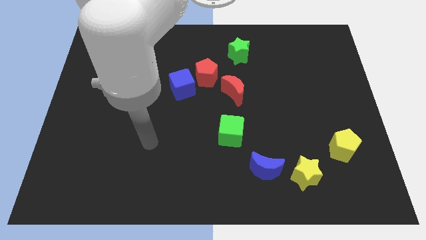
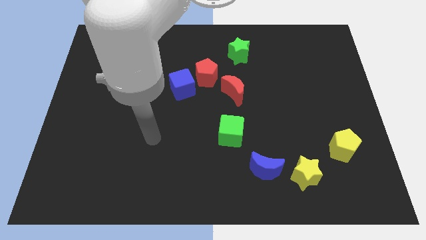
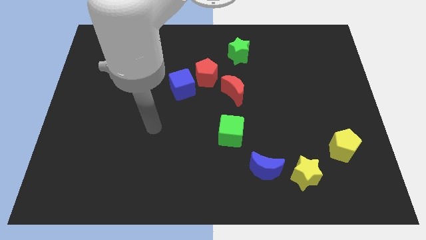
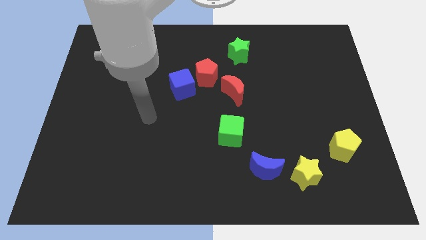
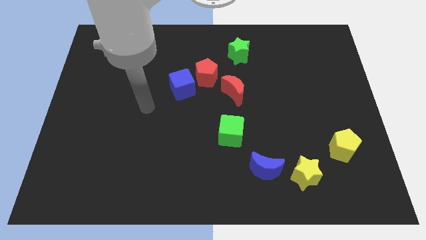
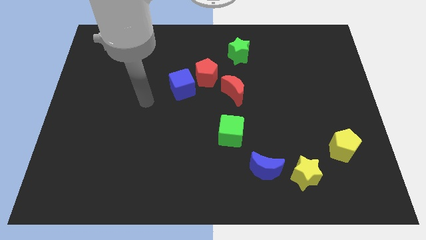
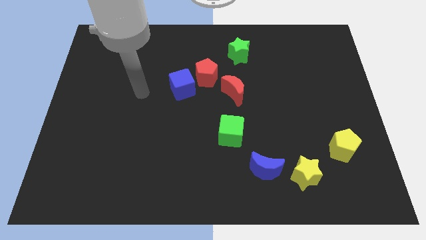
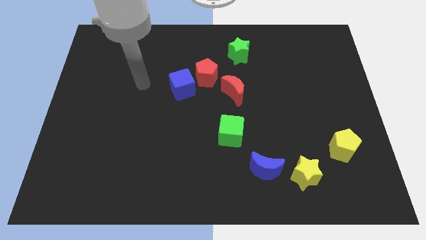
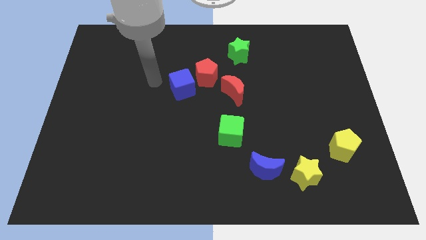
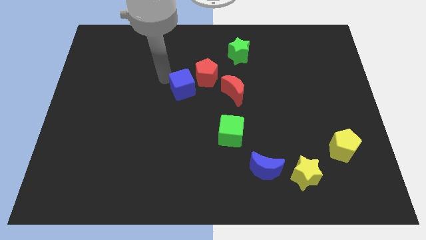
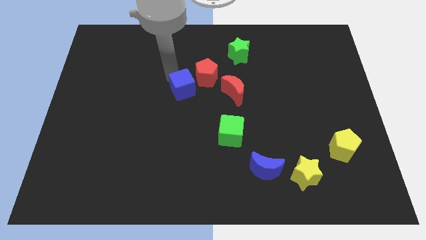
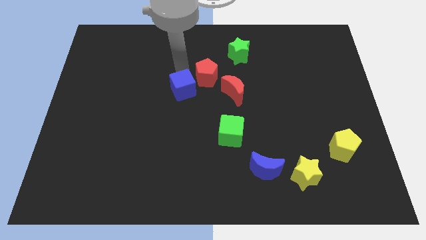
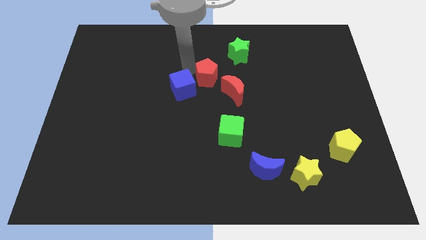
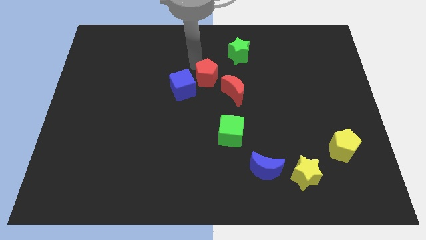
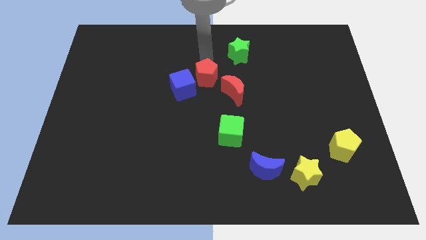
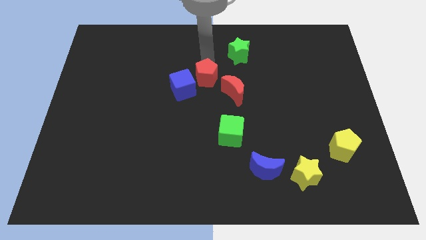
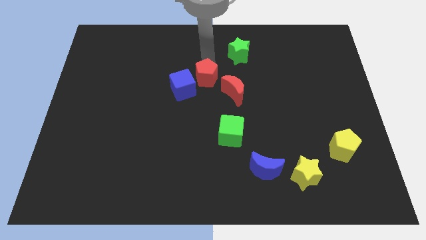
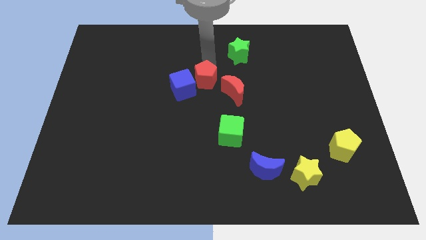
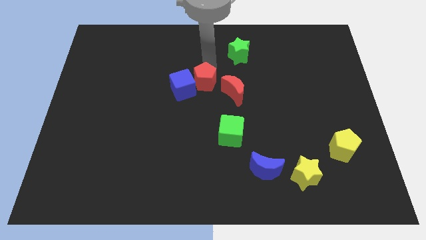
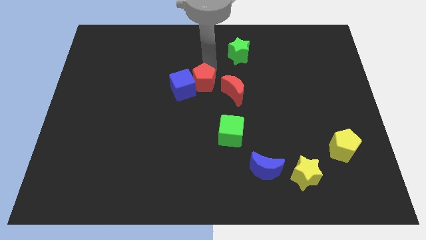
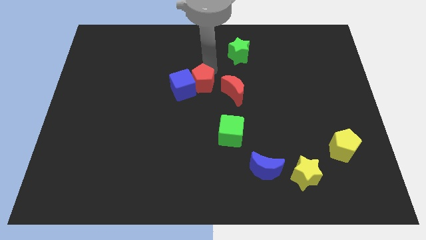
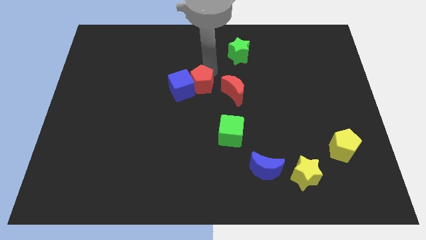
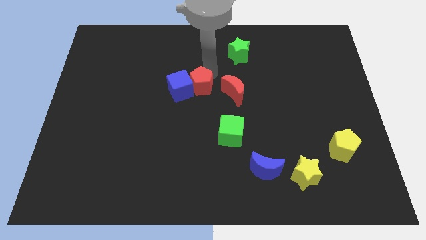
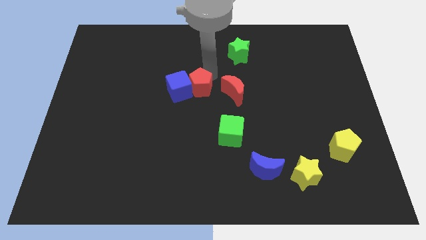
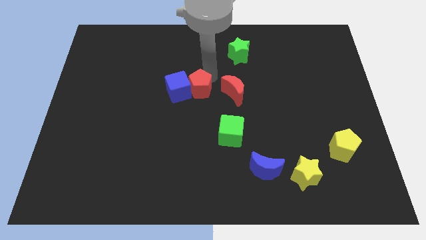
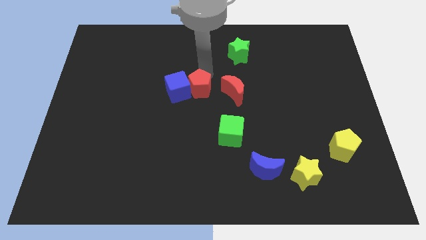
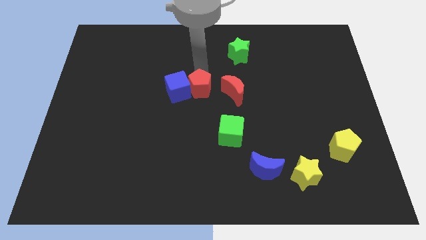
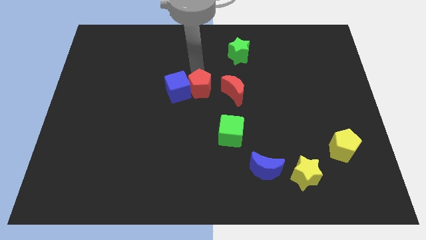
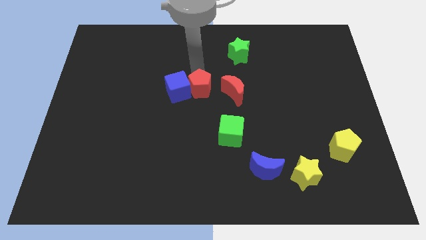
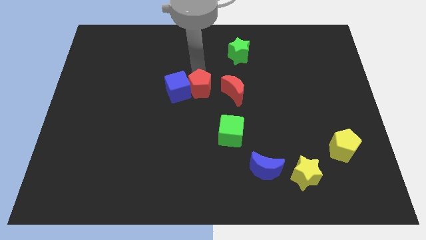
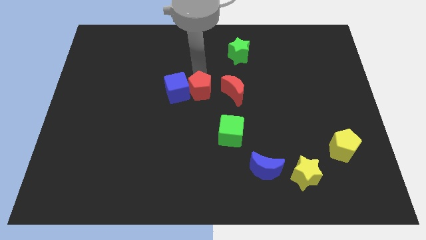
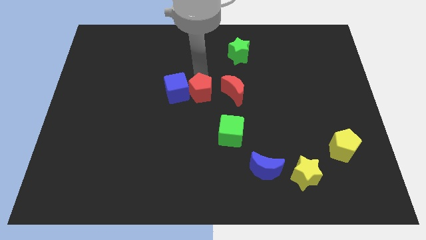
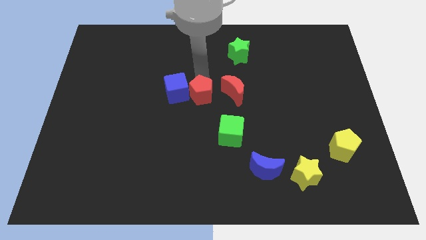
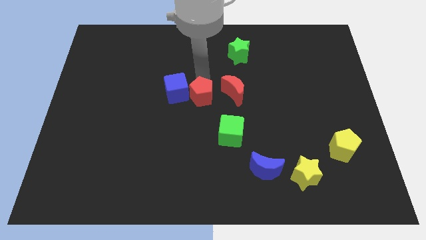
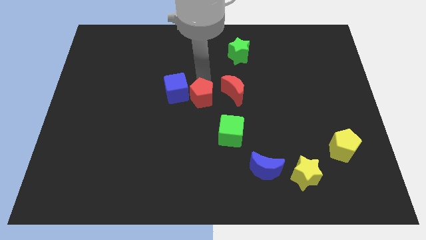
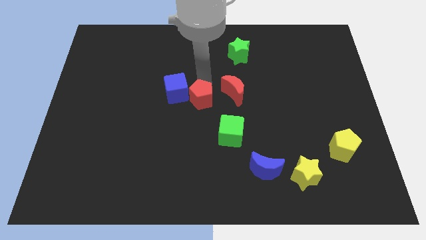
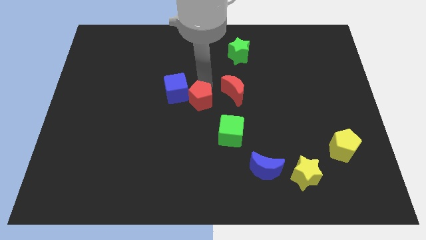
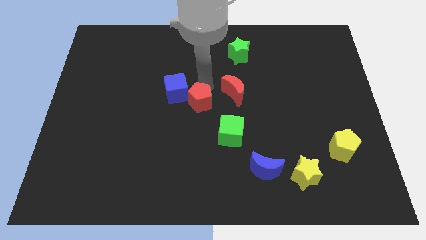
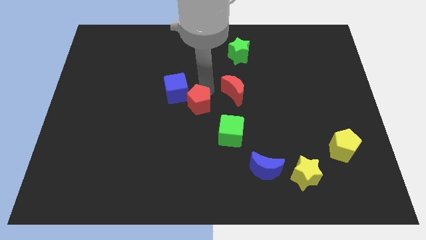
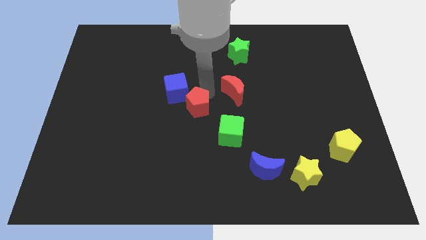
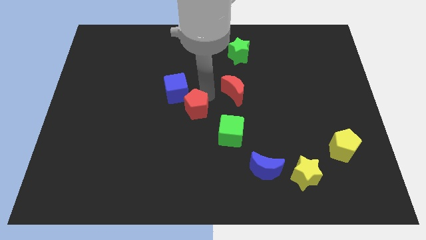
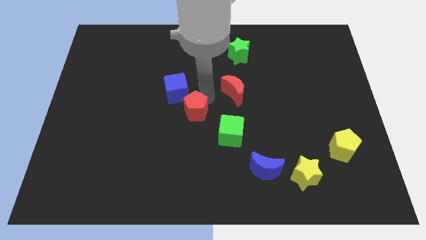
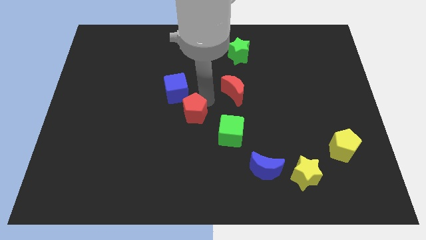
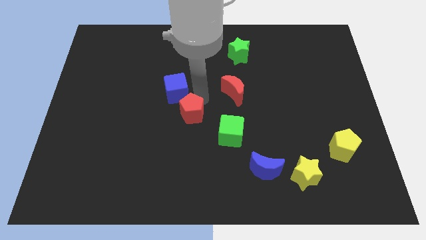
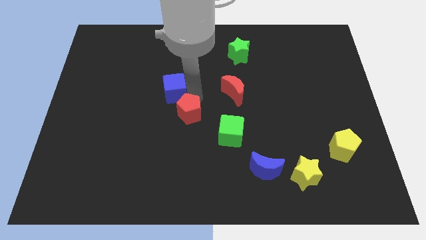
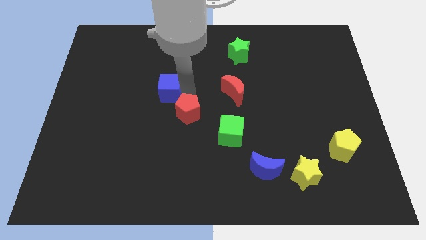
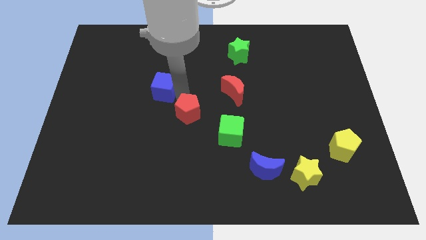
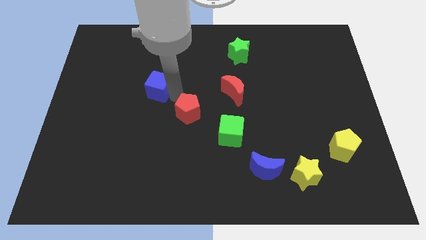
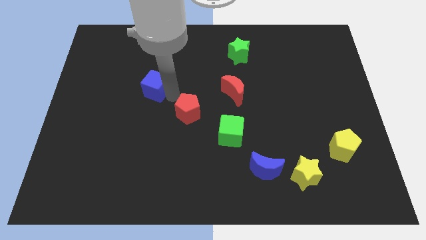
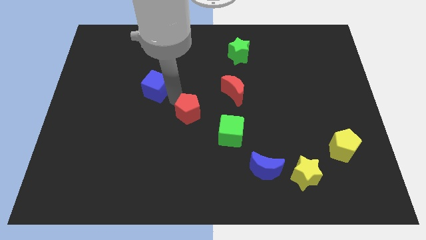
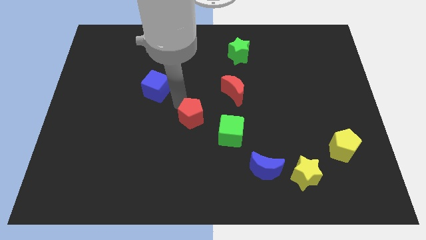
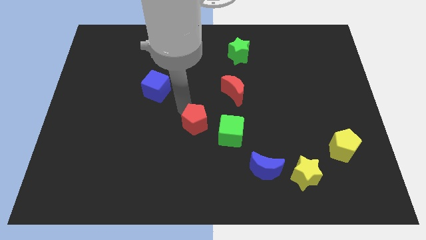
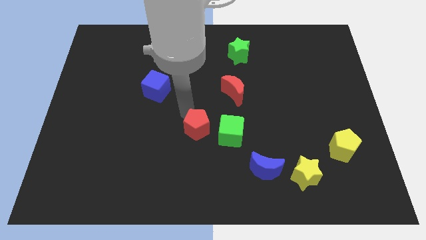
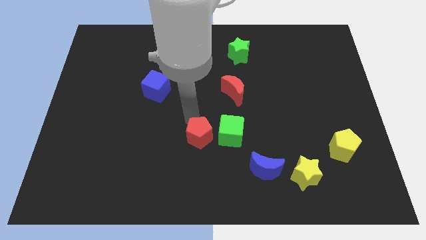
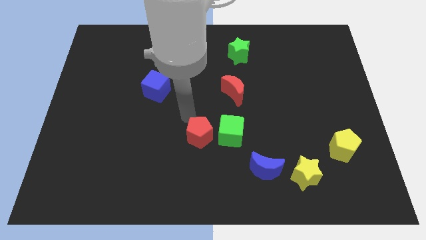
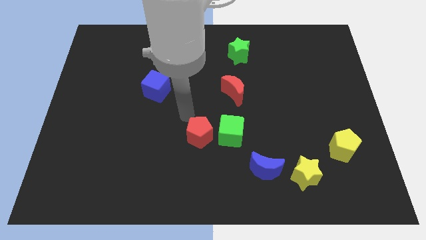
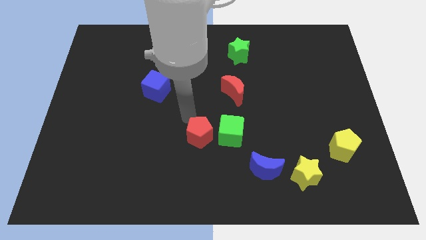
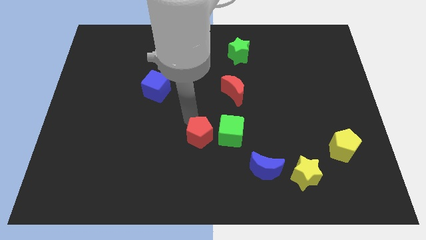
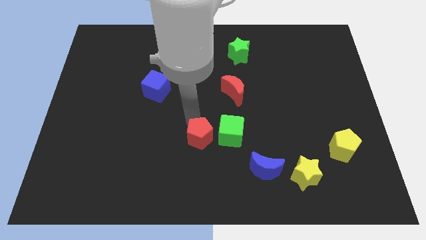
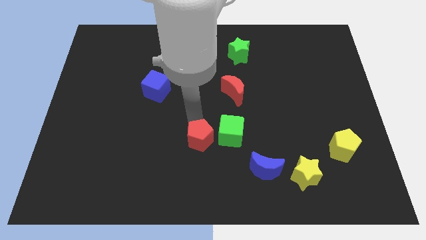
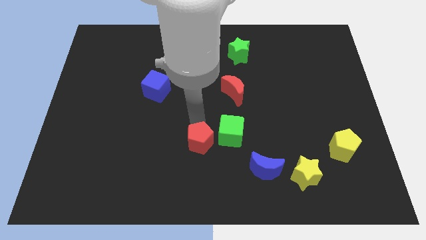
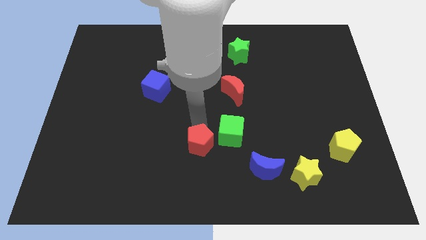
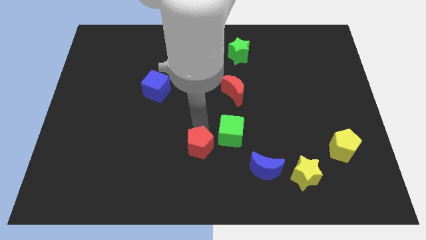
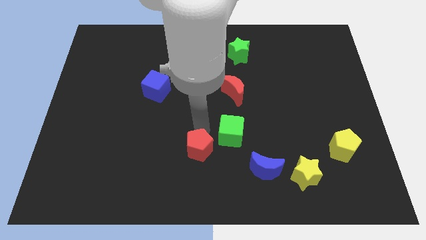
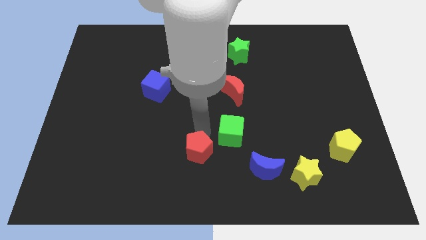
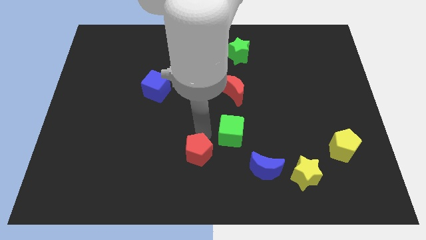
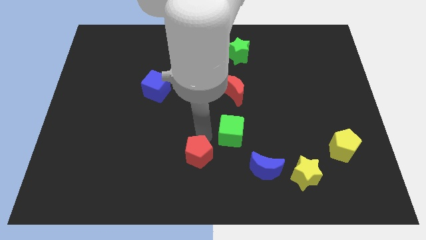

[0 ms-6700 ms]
move the red pentagon to the bottom side
